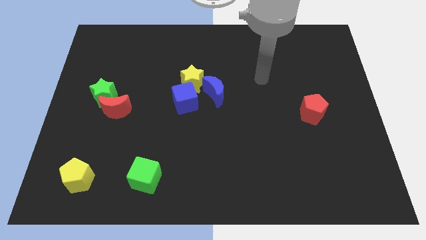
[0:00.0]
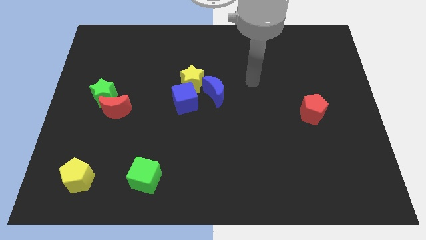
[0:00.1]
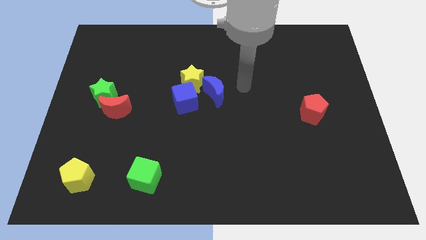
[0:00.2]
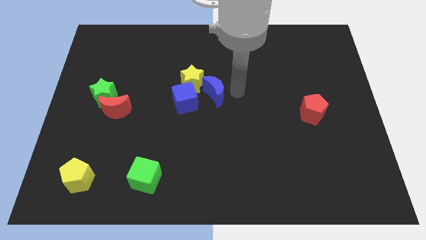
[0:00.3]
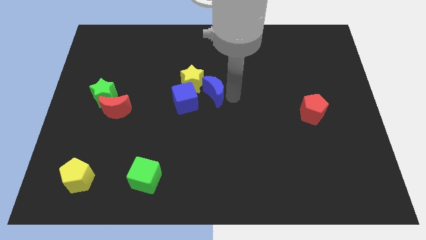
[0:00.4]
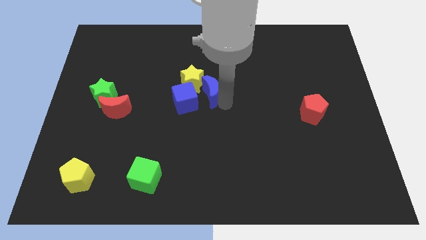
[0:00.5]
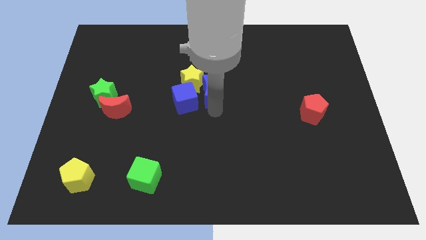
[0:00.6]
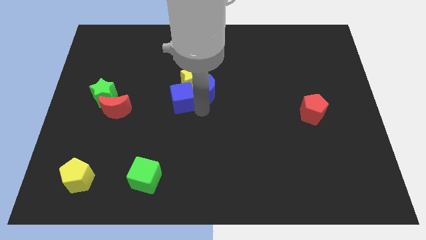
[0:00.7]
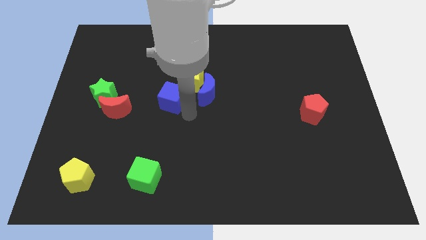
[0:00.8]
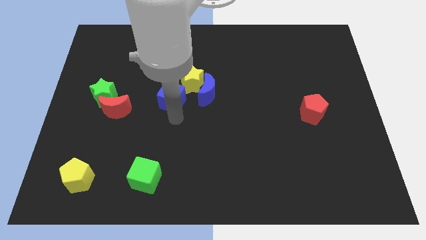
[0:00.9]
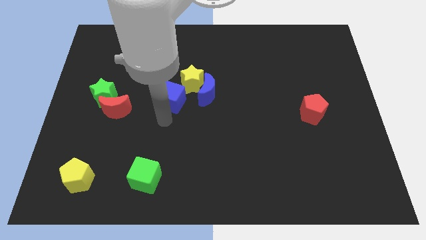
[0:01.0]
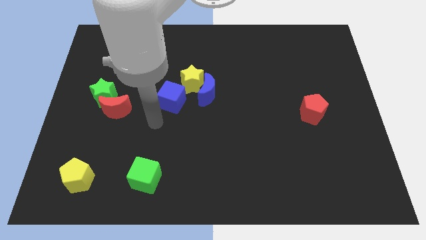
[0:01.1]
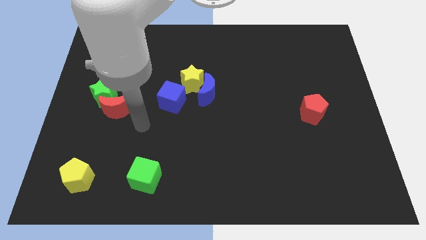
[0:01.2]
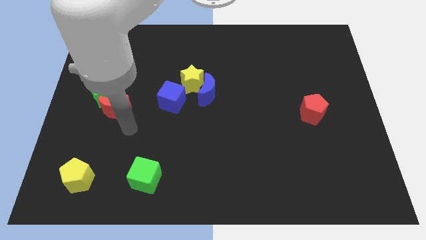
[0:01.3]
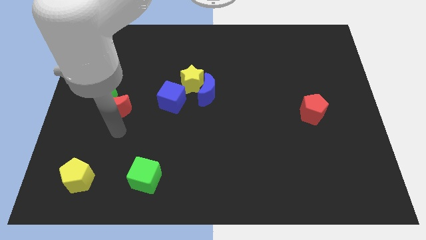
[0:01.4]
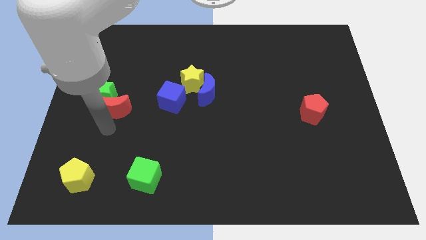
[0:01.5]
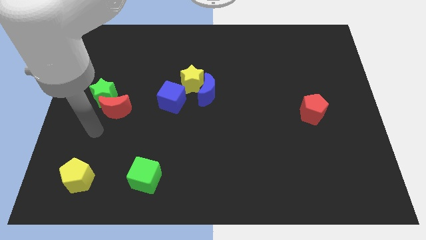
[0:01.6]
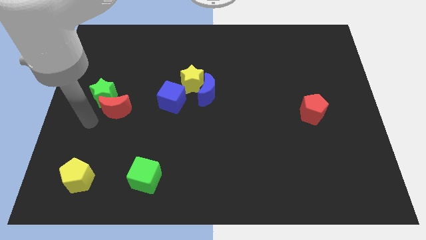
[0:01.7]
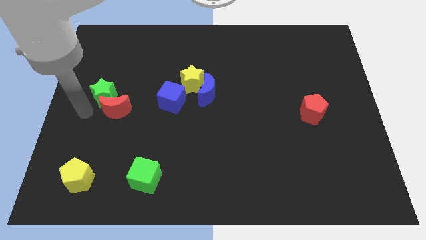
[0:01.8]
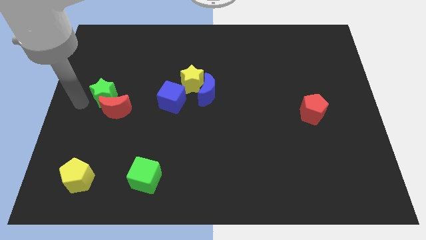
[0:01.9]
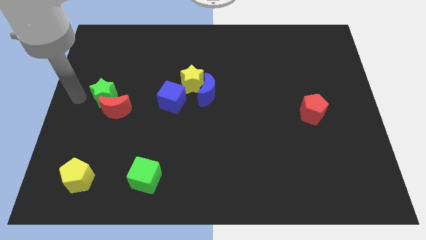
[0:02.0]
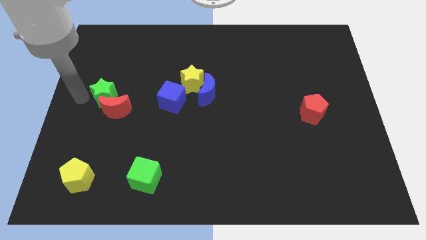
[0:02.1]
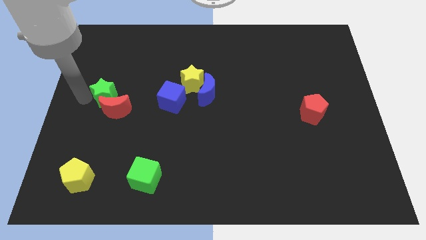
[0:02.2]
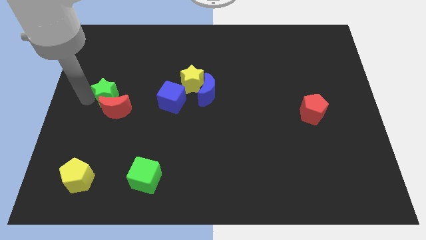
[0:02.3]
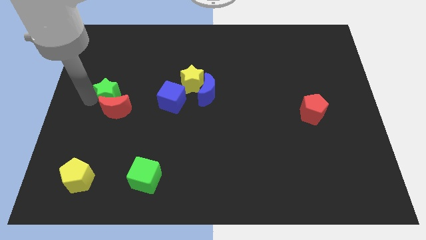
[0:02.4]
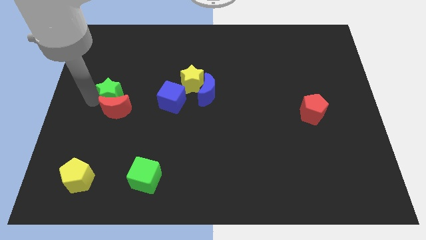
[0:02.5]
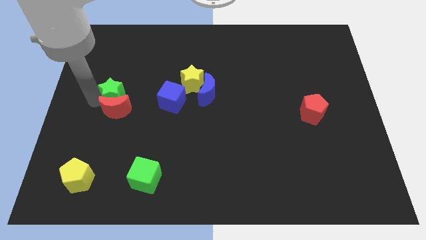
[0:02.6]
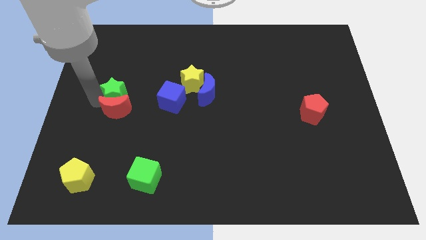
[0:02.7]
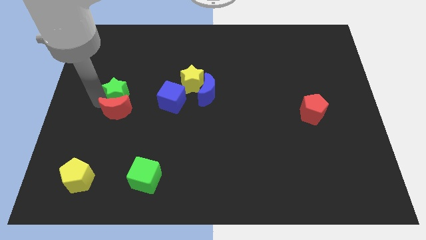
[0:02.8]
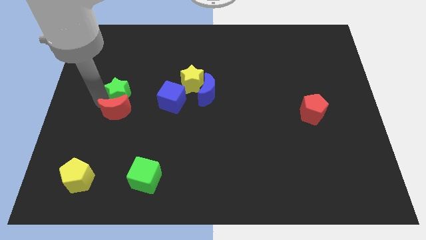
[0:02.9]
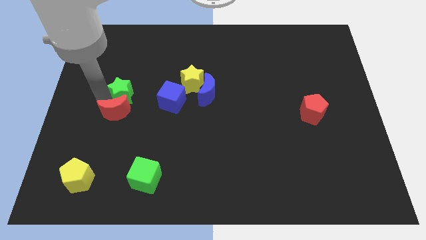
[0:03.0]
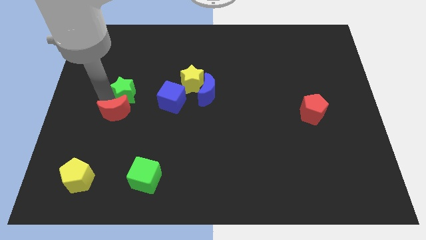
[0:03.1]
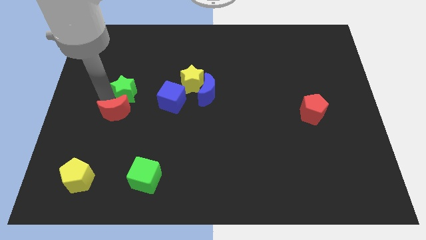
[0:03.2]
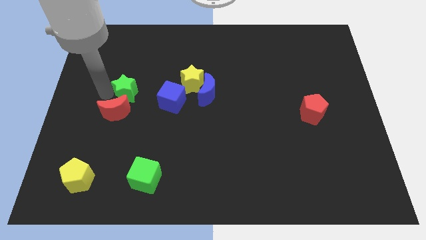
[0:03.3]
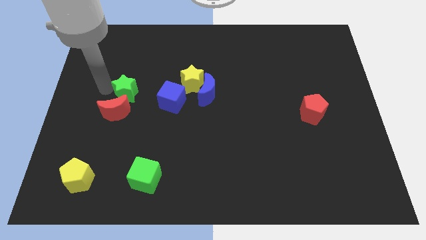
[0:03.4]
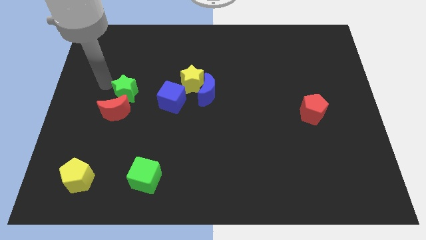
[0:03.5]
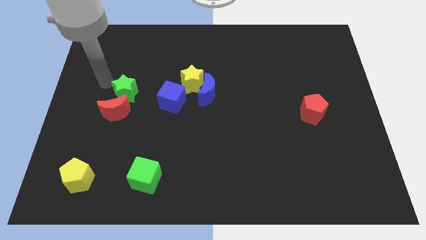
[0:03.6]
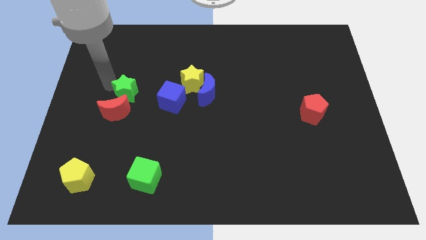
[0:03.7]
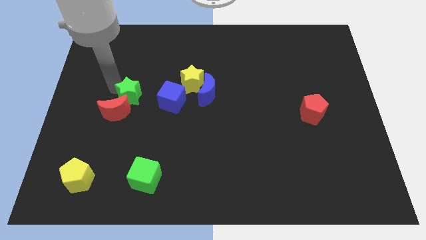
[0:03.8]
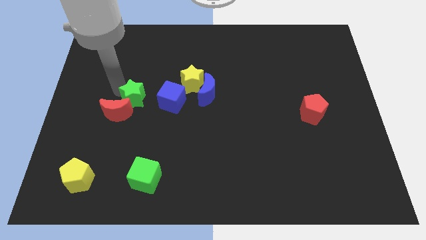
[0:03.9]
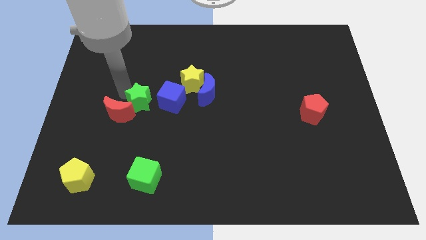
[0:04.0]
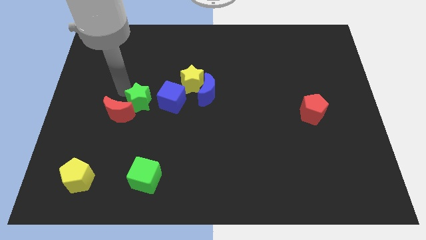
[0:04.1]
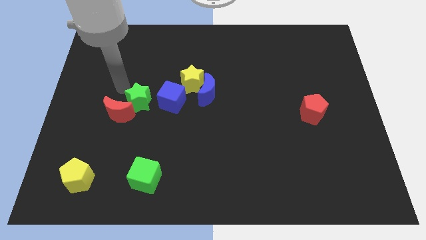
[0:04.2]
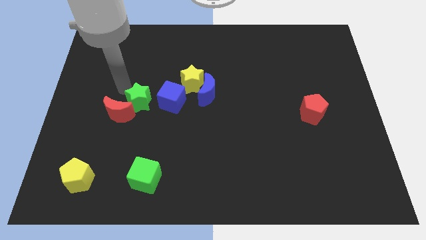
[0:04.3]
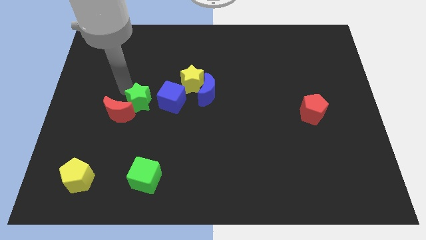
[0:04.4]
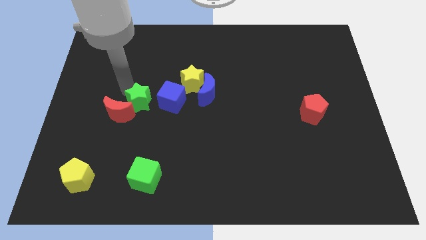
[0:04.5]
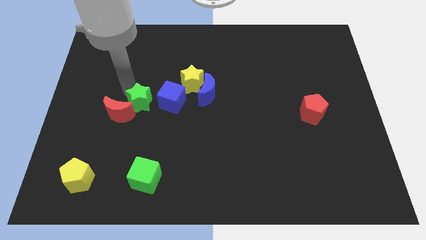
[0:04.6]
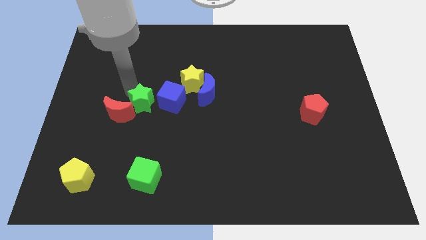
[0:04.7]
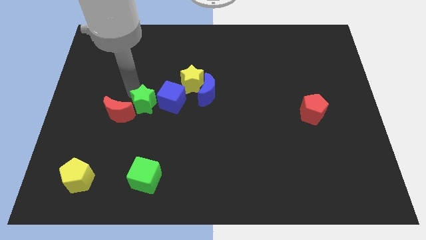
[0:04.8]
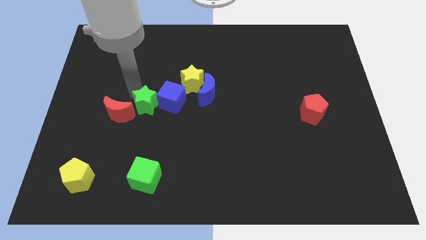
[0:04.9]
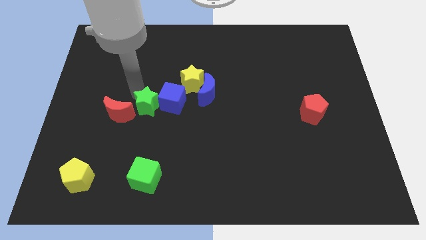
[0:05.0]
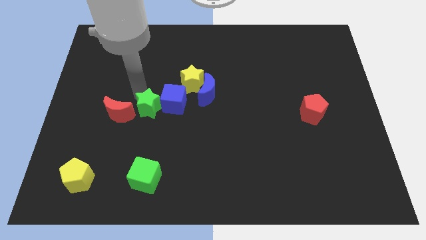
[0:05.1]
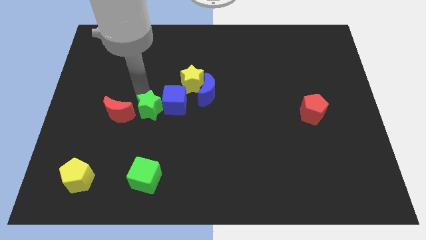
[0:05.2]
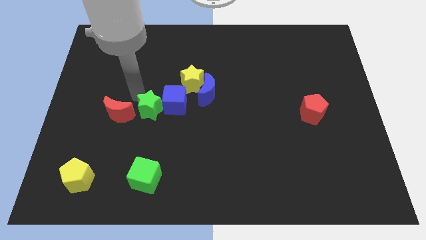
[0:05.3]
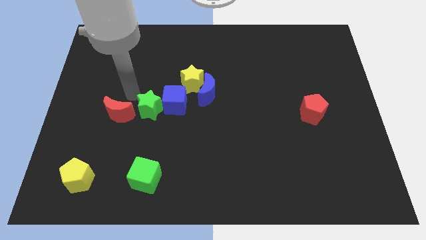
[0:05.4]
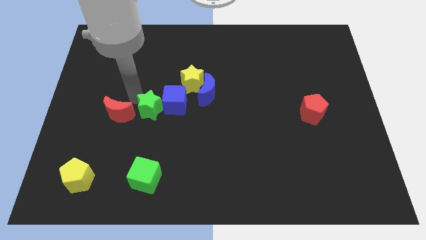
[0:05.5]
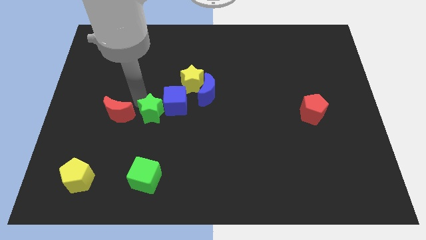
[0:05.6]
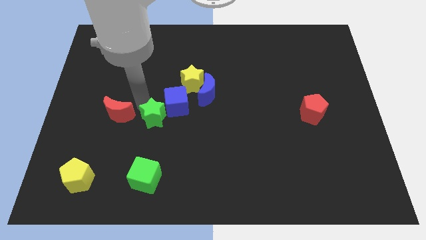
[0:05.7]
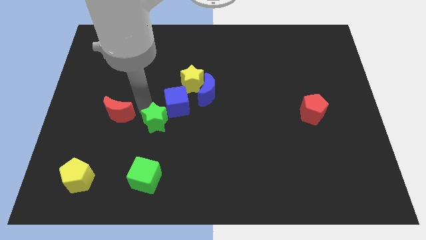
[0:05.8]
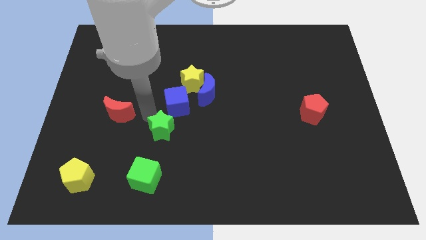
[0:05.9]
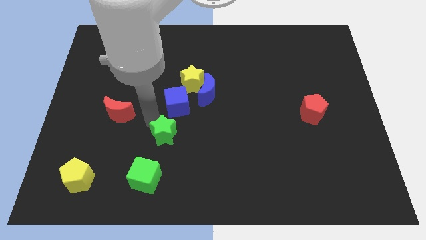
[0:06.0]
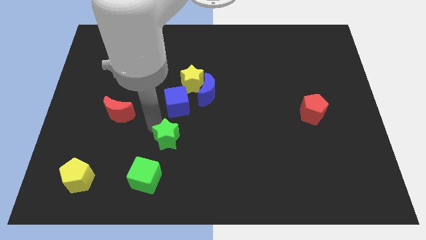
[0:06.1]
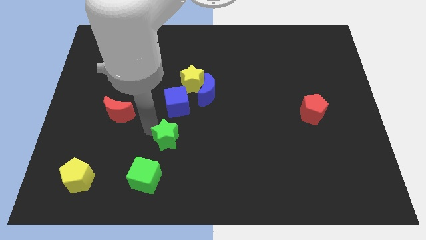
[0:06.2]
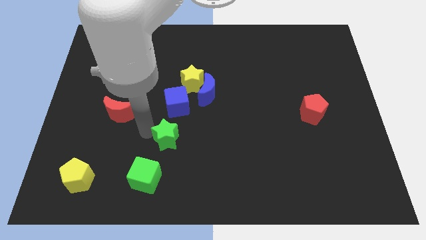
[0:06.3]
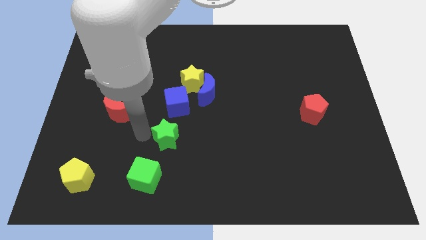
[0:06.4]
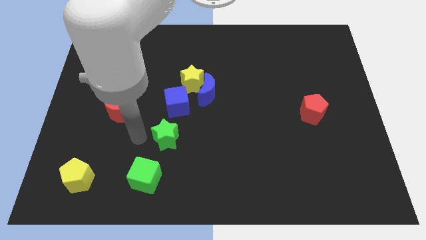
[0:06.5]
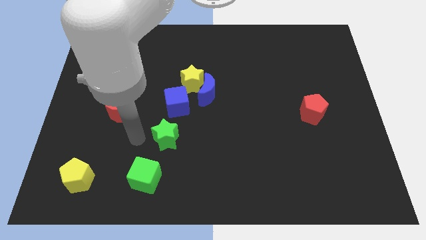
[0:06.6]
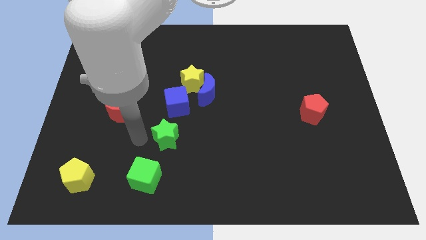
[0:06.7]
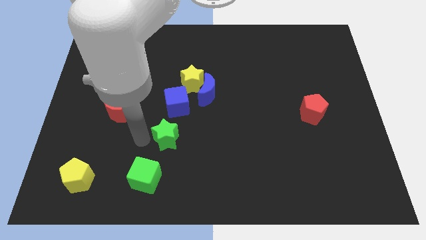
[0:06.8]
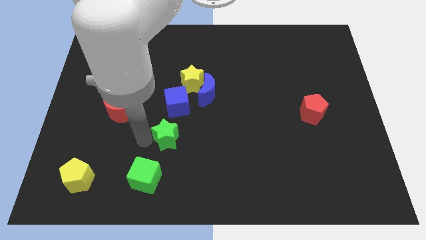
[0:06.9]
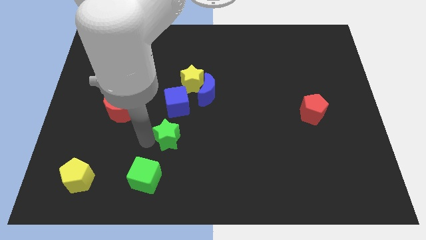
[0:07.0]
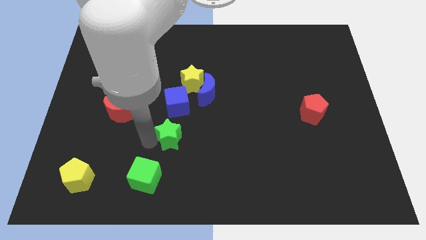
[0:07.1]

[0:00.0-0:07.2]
push the green star diagonally down and right

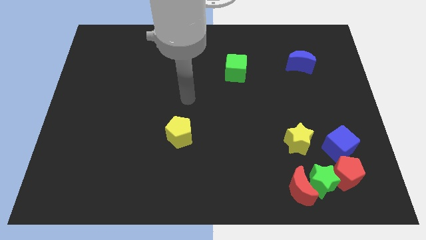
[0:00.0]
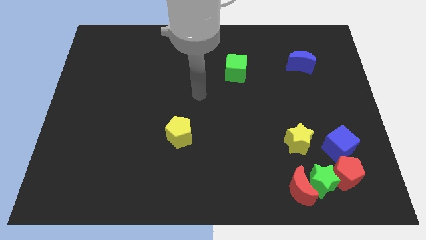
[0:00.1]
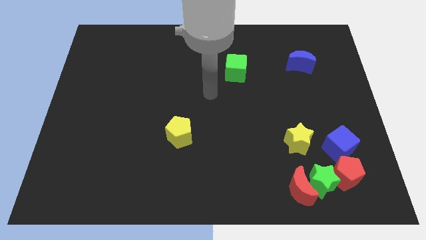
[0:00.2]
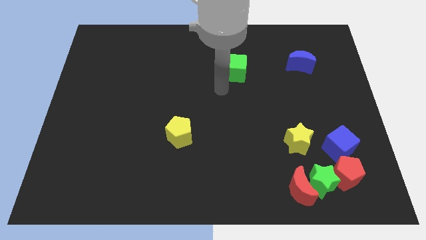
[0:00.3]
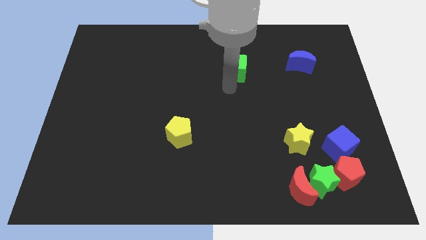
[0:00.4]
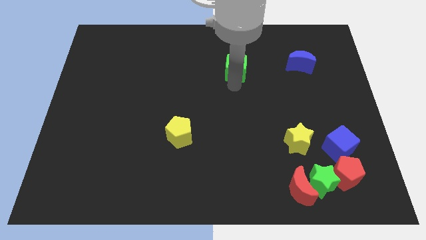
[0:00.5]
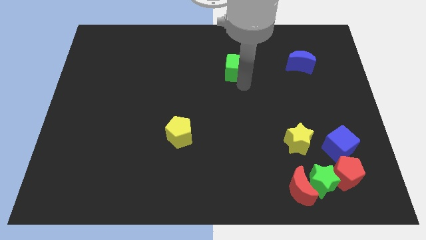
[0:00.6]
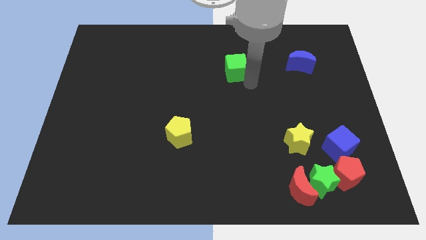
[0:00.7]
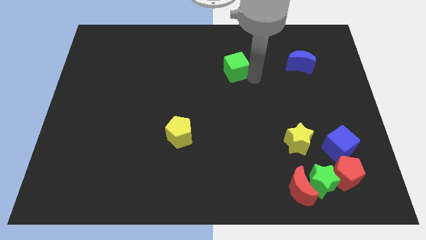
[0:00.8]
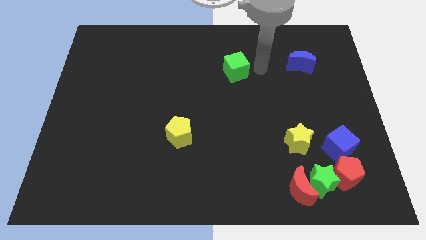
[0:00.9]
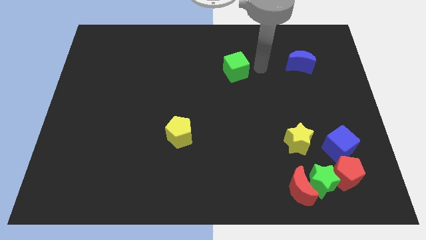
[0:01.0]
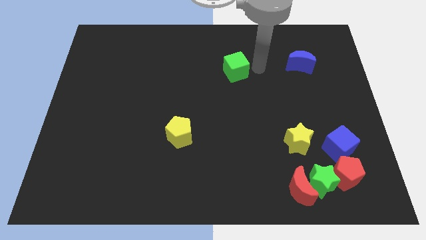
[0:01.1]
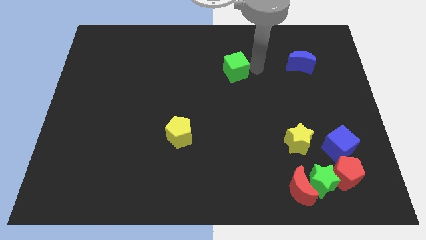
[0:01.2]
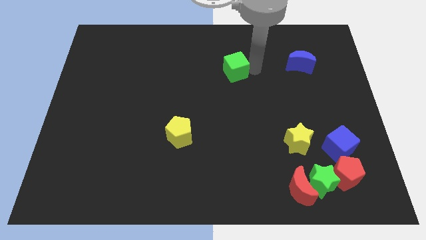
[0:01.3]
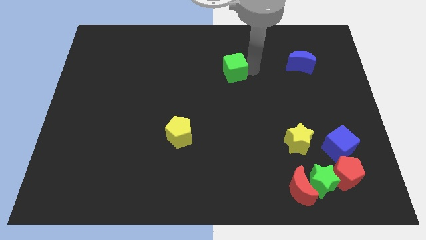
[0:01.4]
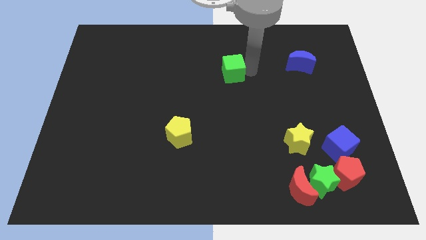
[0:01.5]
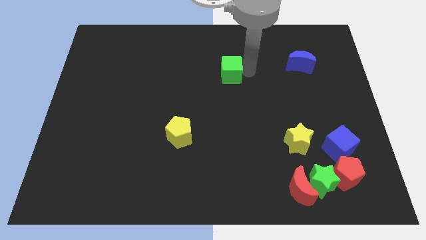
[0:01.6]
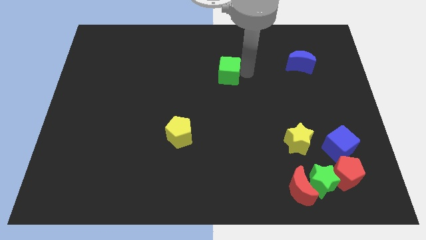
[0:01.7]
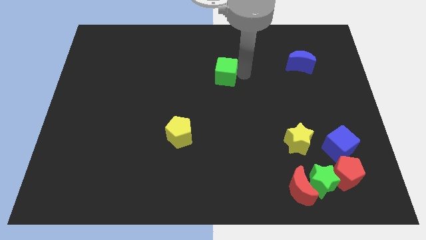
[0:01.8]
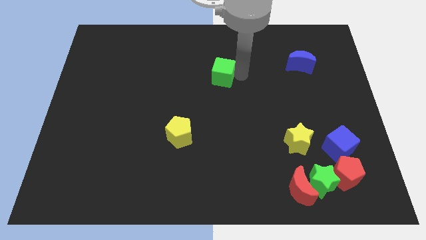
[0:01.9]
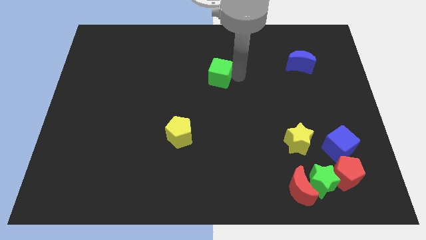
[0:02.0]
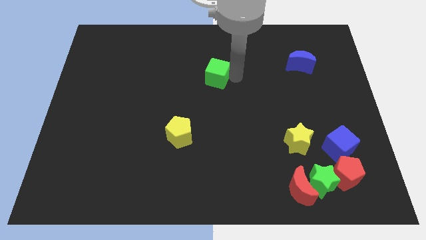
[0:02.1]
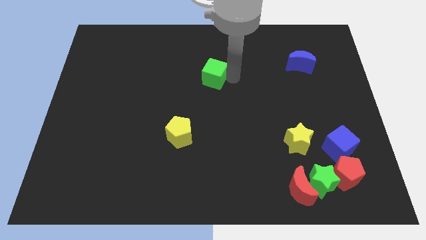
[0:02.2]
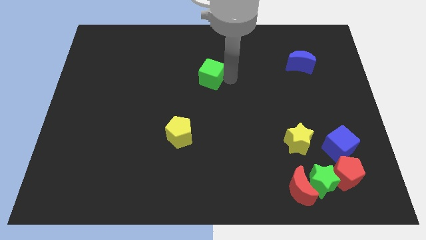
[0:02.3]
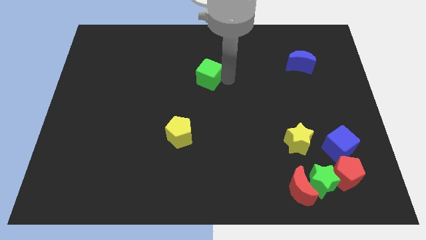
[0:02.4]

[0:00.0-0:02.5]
move the green cube slightly to the left
